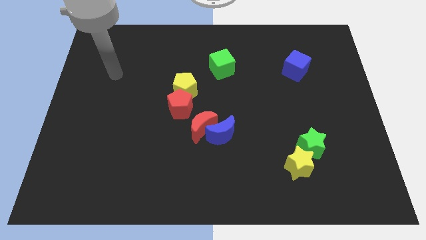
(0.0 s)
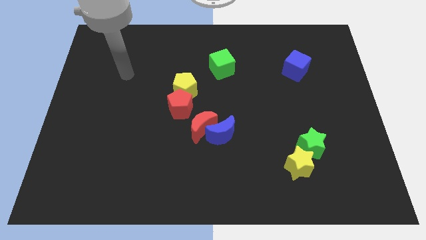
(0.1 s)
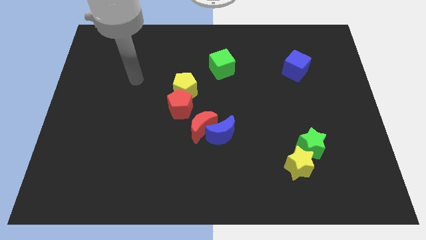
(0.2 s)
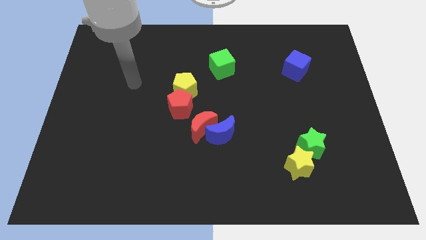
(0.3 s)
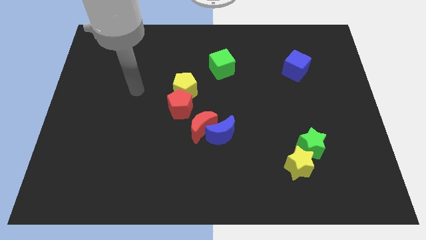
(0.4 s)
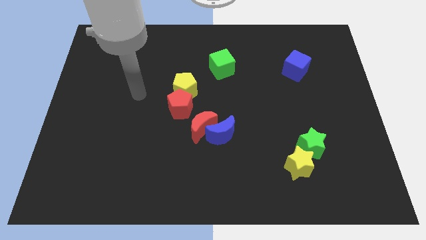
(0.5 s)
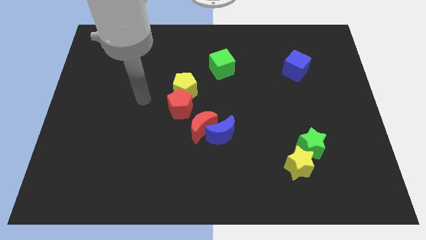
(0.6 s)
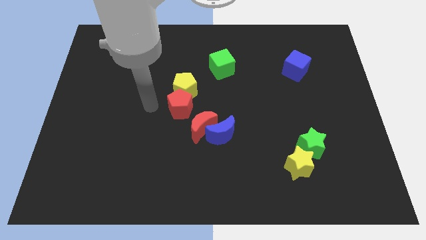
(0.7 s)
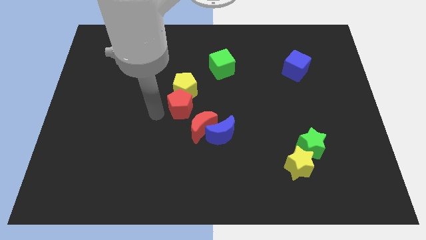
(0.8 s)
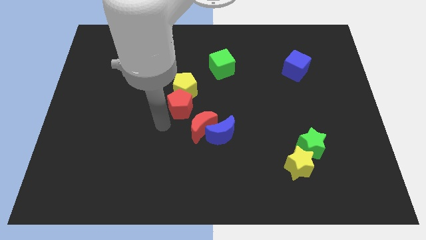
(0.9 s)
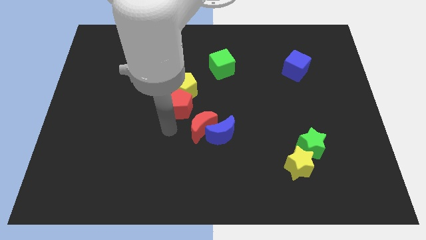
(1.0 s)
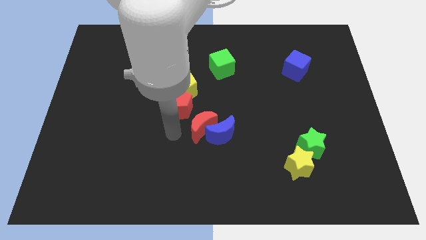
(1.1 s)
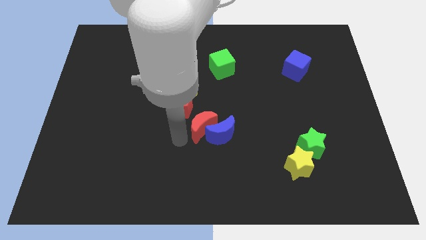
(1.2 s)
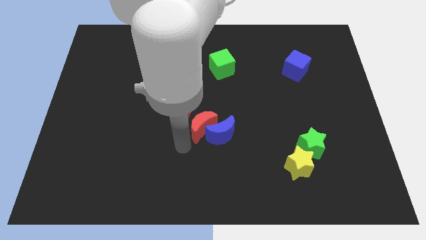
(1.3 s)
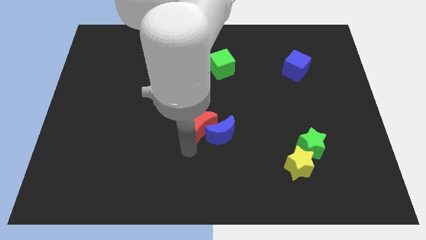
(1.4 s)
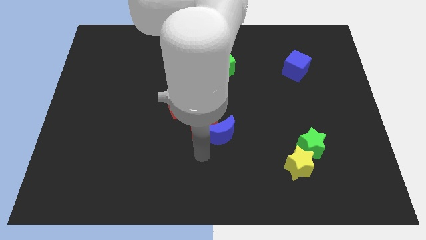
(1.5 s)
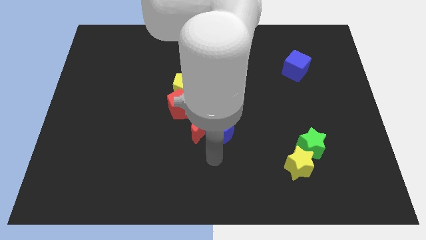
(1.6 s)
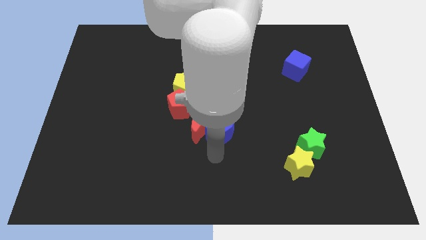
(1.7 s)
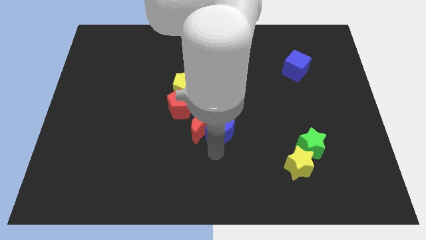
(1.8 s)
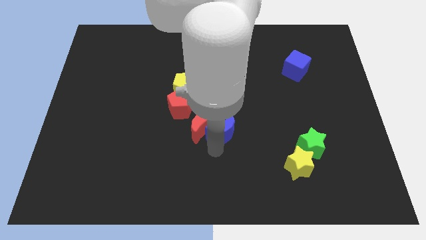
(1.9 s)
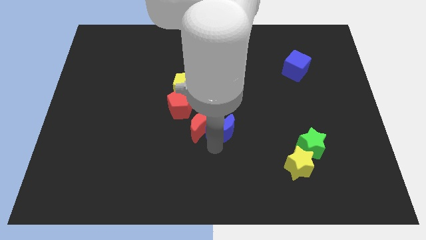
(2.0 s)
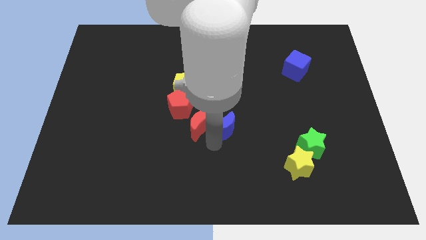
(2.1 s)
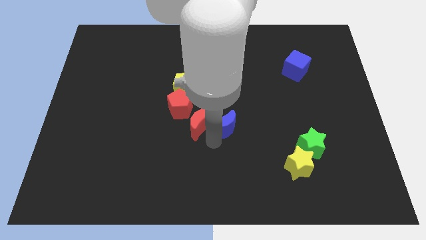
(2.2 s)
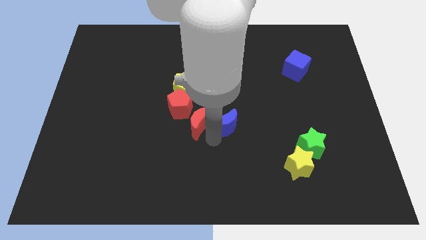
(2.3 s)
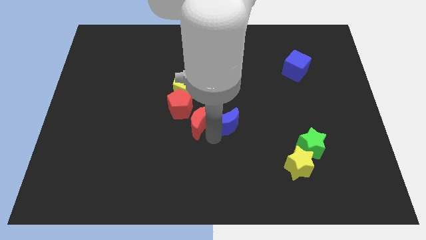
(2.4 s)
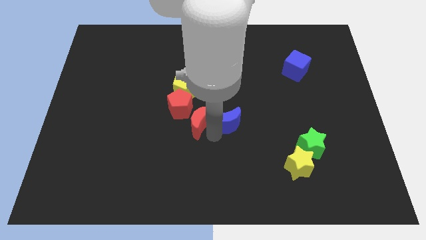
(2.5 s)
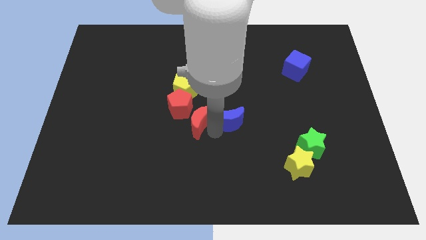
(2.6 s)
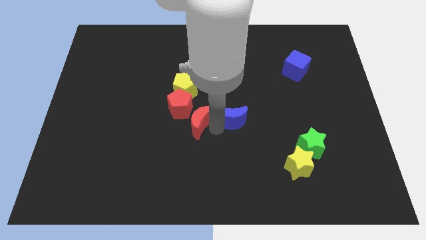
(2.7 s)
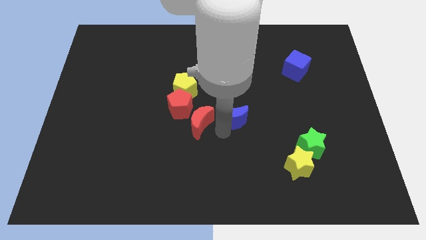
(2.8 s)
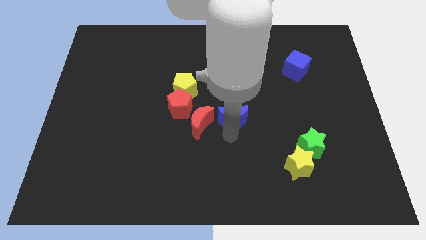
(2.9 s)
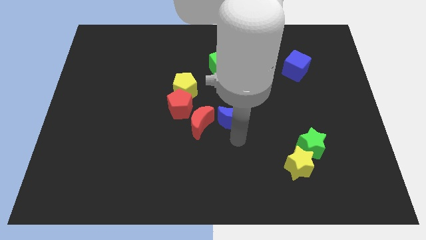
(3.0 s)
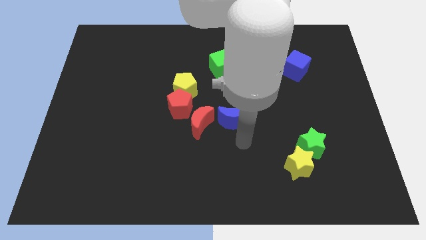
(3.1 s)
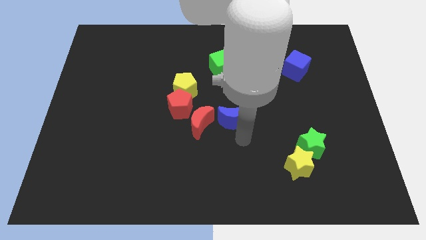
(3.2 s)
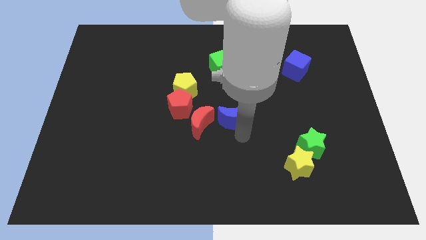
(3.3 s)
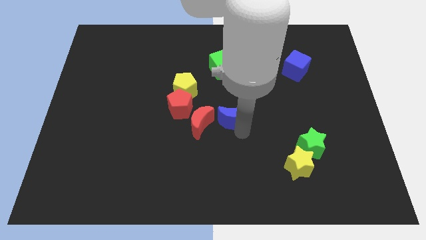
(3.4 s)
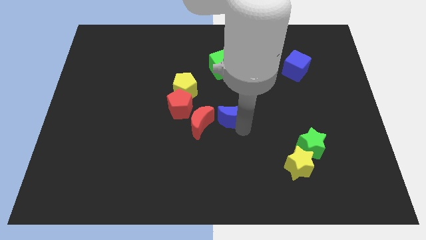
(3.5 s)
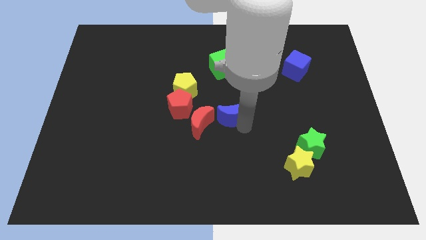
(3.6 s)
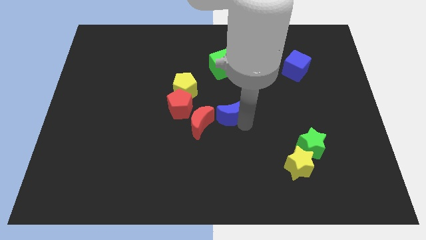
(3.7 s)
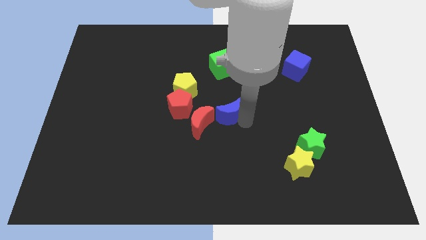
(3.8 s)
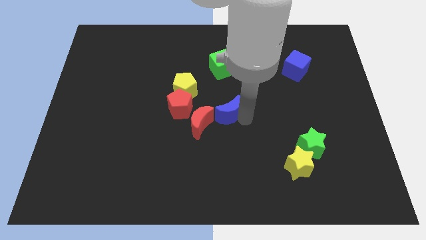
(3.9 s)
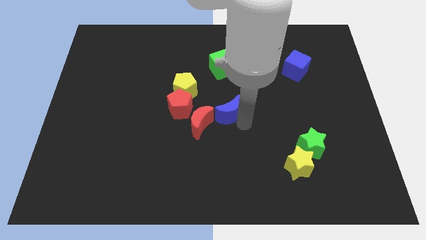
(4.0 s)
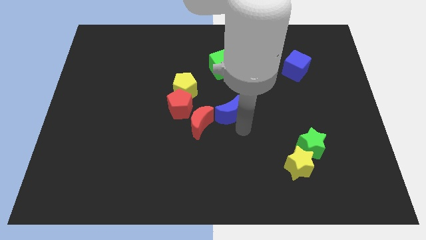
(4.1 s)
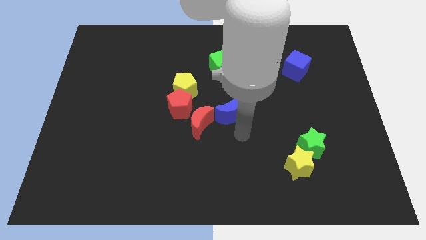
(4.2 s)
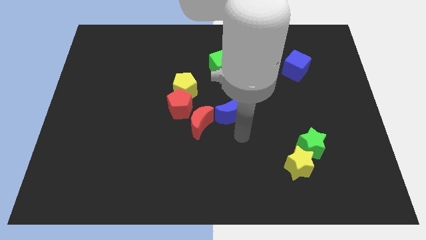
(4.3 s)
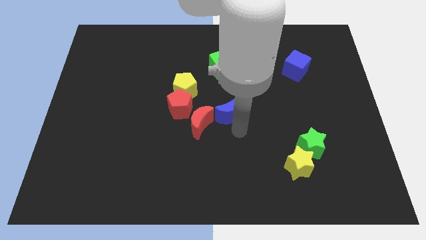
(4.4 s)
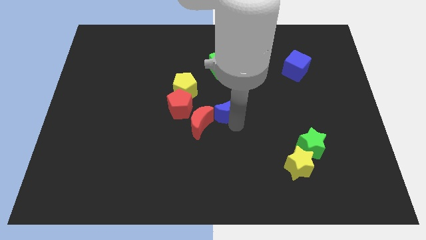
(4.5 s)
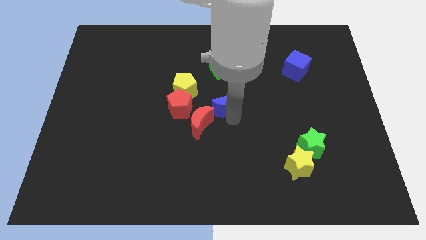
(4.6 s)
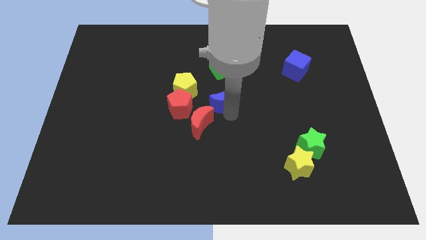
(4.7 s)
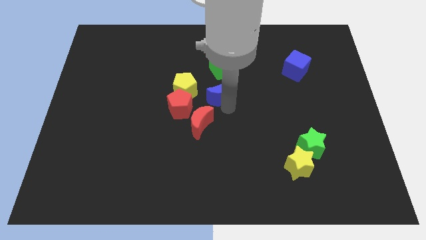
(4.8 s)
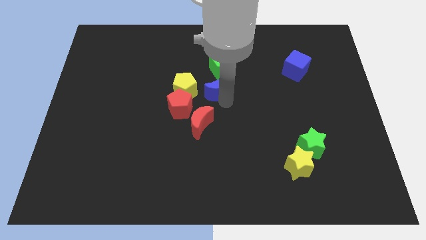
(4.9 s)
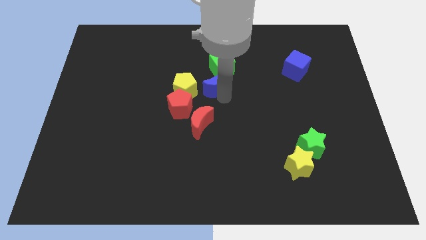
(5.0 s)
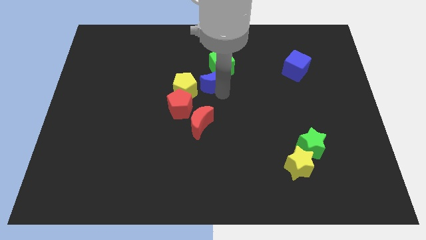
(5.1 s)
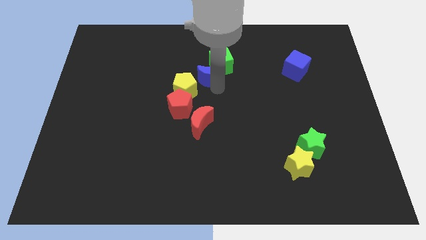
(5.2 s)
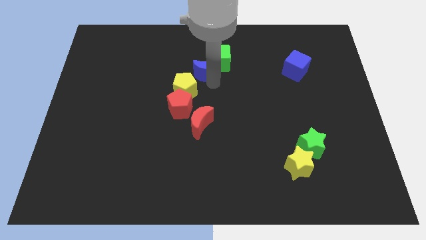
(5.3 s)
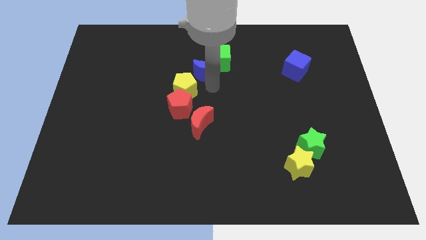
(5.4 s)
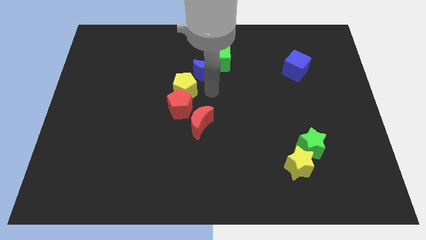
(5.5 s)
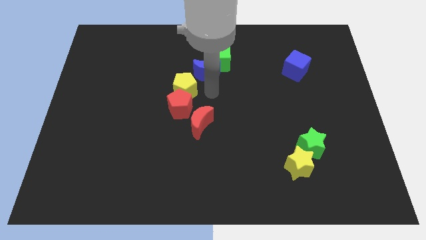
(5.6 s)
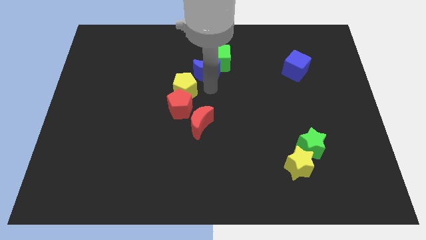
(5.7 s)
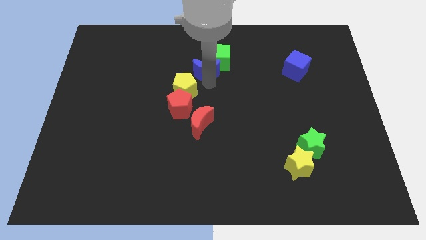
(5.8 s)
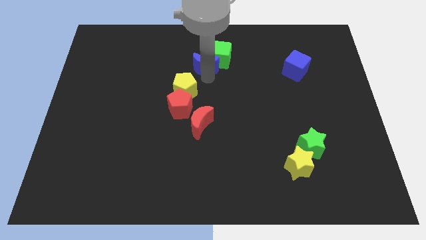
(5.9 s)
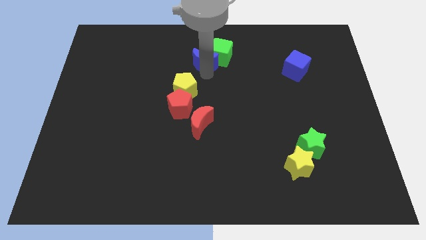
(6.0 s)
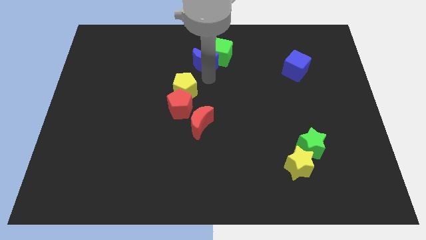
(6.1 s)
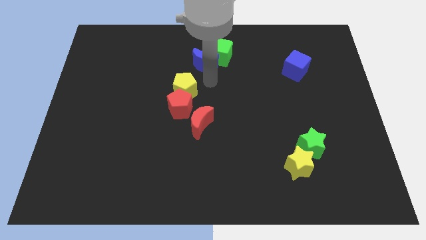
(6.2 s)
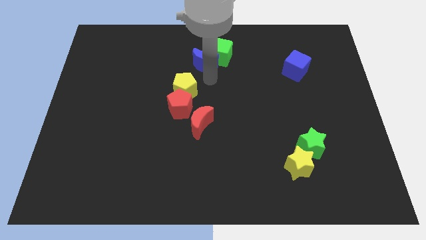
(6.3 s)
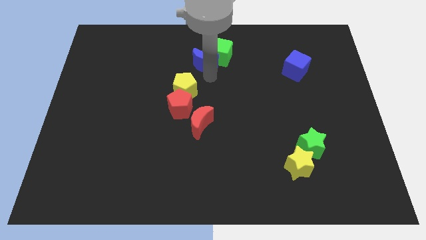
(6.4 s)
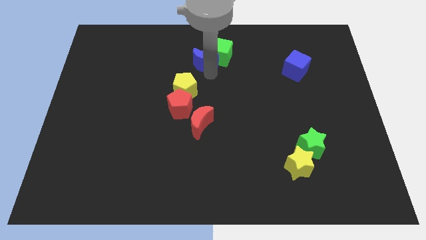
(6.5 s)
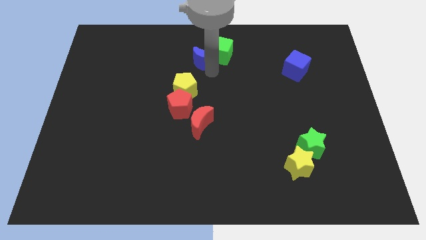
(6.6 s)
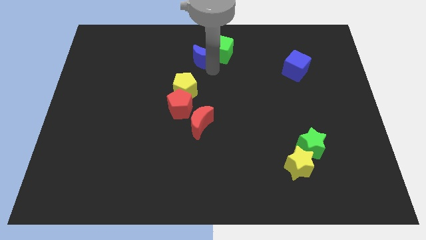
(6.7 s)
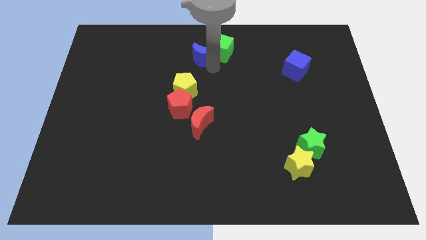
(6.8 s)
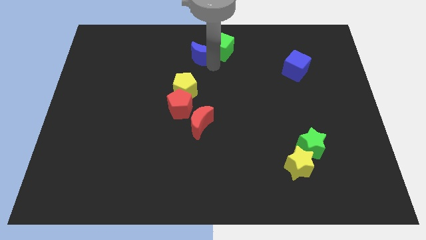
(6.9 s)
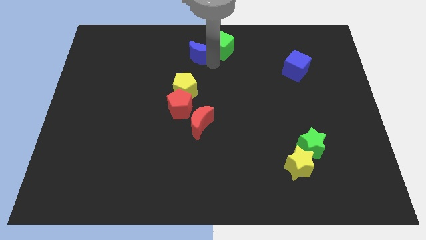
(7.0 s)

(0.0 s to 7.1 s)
slide the blue moon to the top side
